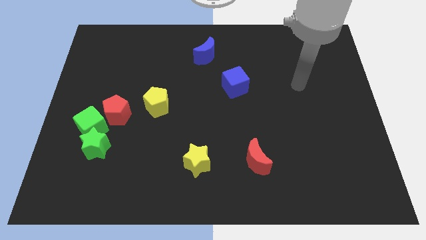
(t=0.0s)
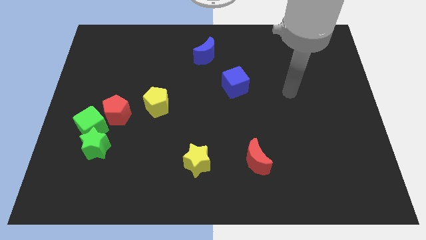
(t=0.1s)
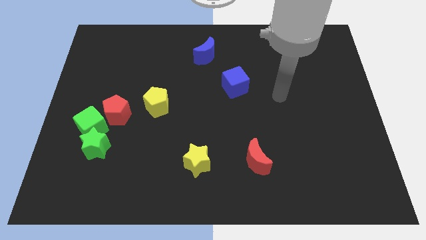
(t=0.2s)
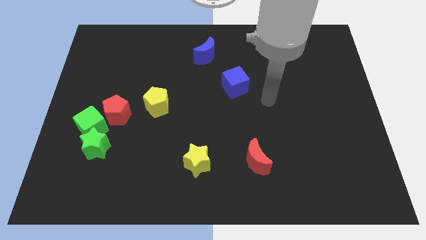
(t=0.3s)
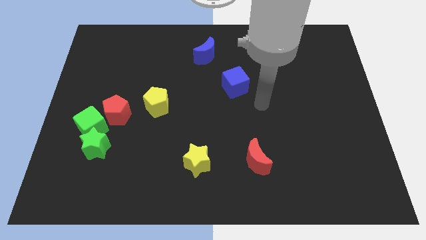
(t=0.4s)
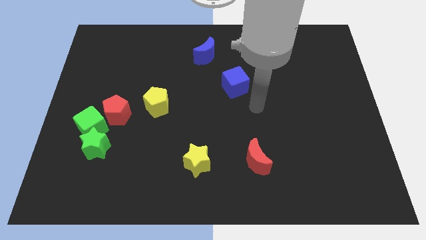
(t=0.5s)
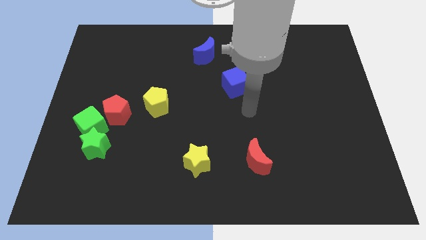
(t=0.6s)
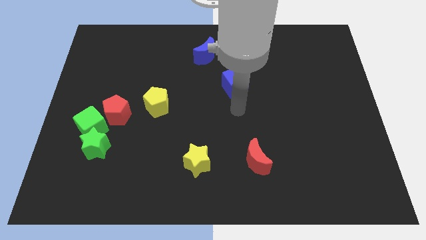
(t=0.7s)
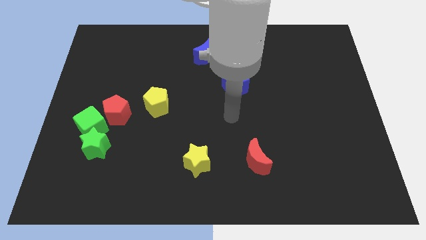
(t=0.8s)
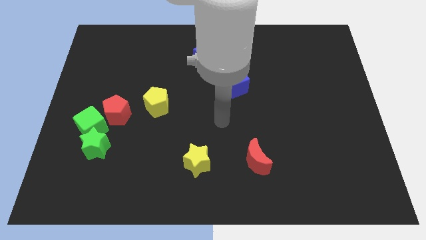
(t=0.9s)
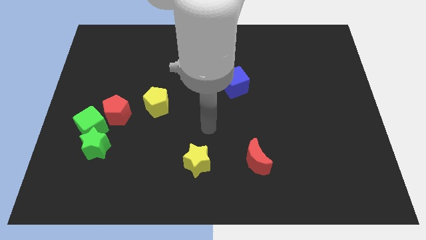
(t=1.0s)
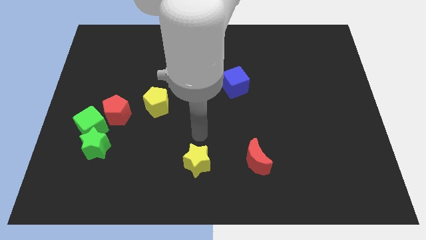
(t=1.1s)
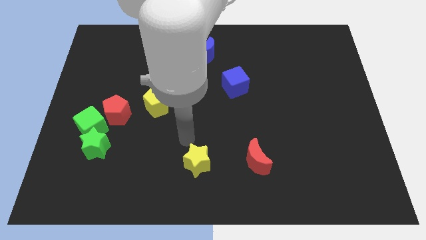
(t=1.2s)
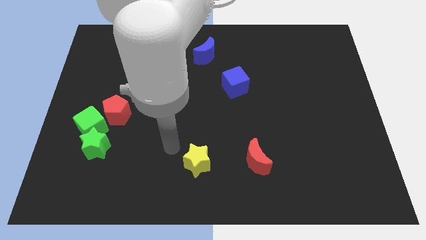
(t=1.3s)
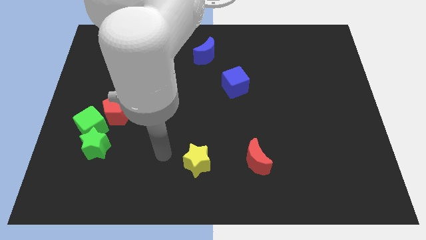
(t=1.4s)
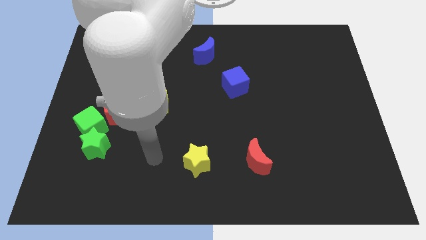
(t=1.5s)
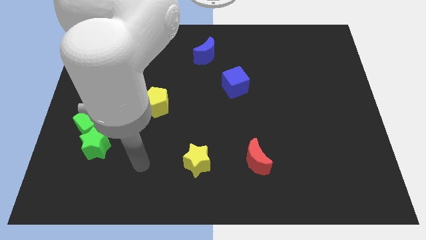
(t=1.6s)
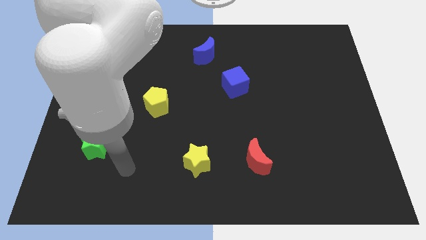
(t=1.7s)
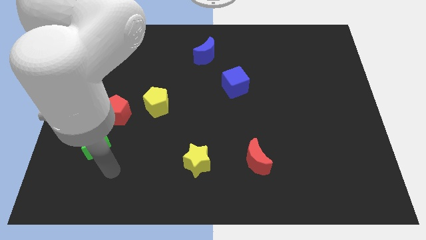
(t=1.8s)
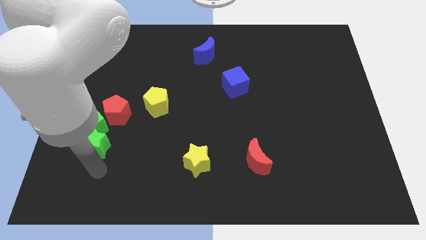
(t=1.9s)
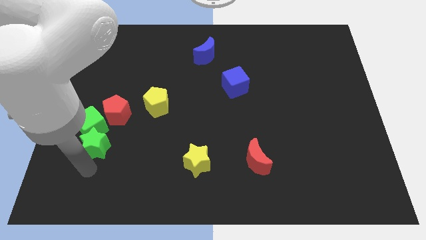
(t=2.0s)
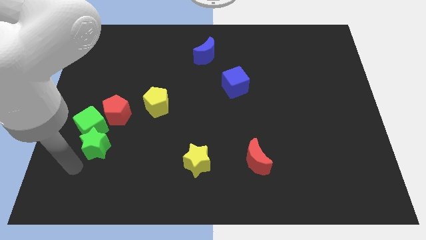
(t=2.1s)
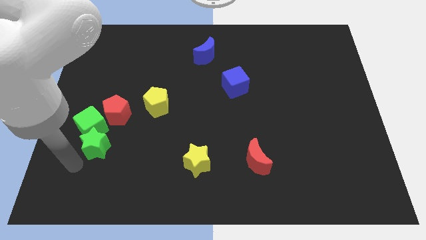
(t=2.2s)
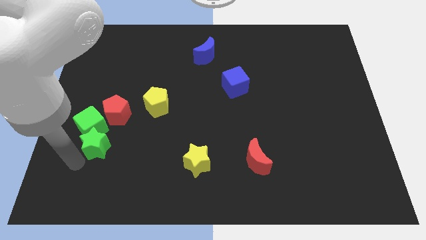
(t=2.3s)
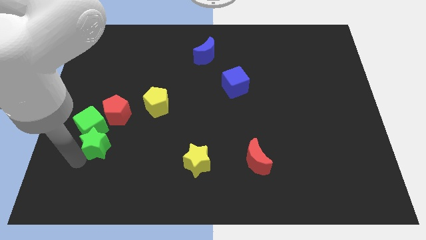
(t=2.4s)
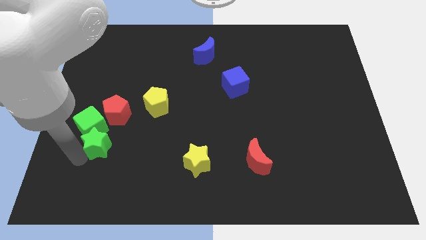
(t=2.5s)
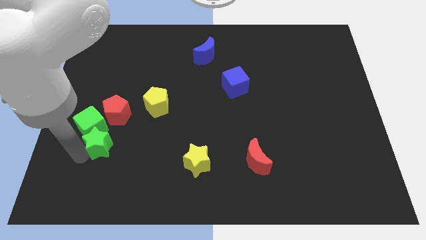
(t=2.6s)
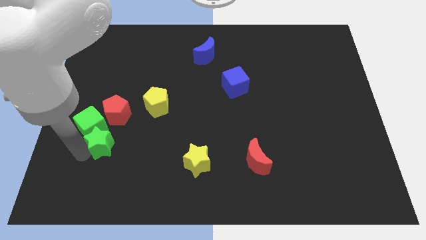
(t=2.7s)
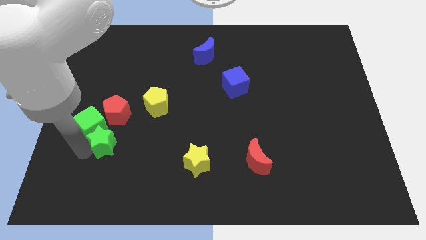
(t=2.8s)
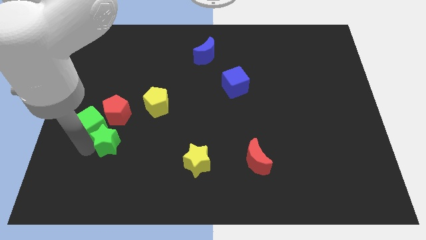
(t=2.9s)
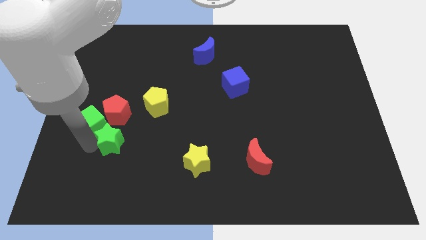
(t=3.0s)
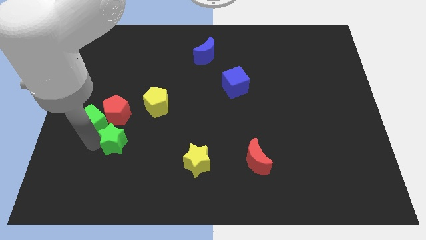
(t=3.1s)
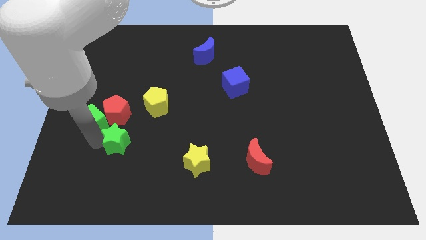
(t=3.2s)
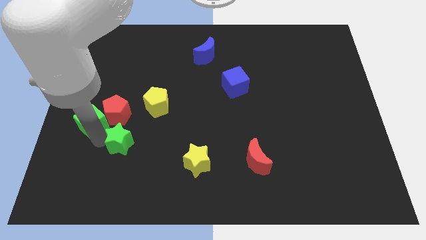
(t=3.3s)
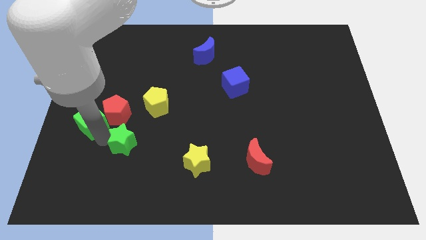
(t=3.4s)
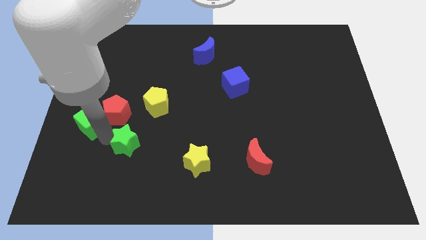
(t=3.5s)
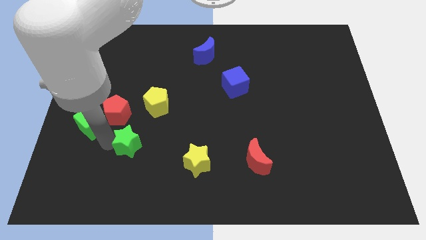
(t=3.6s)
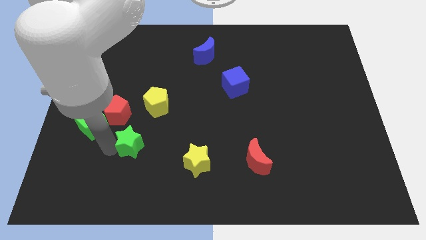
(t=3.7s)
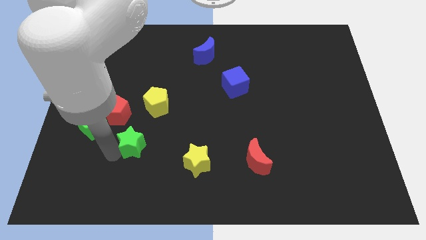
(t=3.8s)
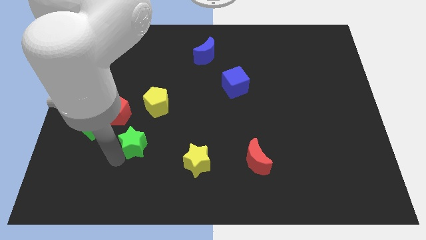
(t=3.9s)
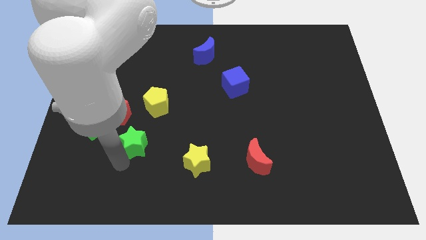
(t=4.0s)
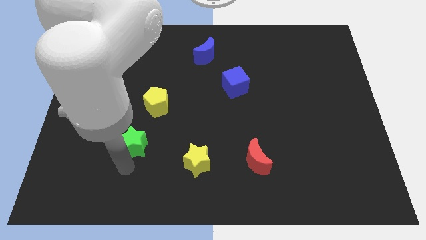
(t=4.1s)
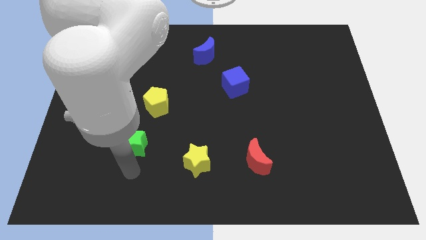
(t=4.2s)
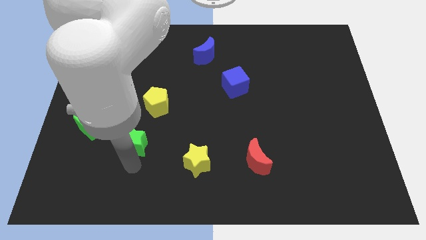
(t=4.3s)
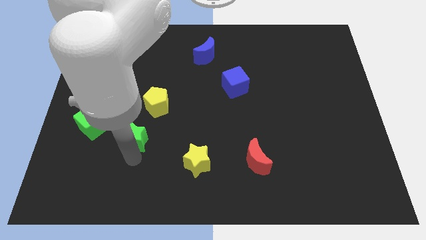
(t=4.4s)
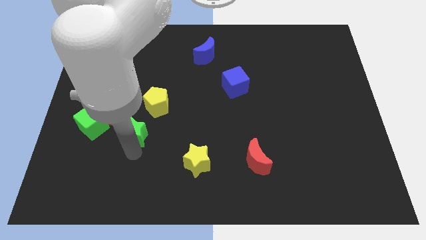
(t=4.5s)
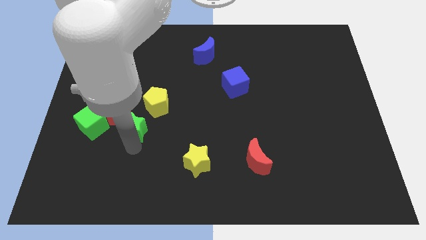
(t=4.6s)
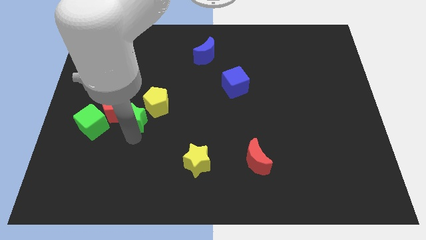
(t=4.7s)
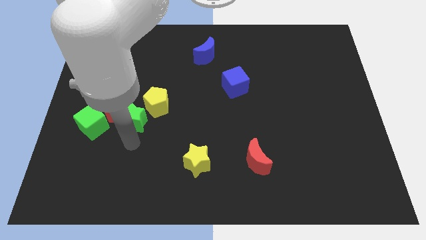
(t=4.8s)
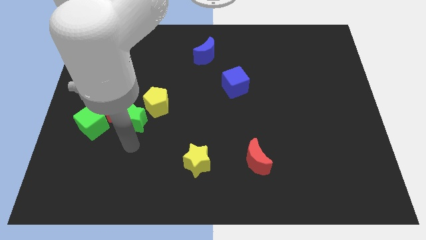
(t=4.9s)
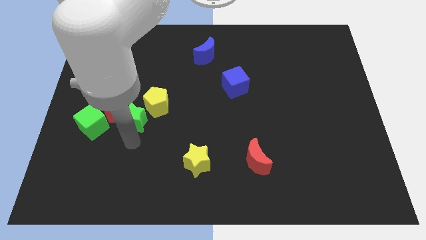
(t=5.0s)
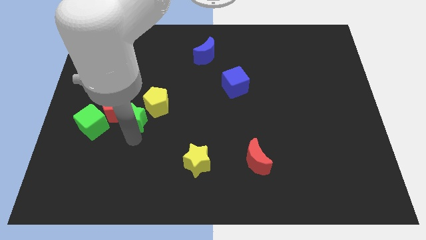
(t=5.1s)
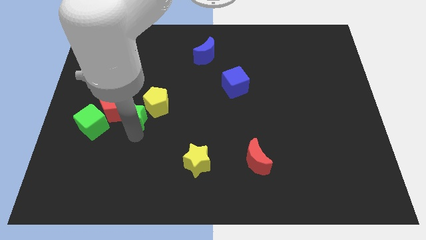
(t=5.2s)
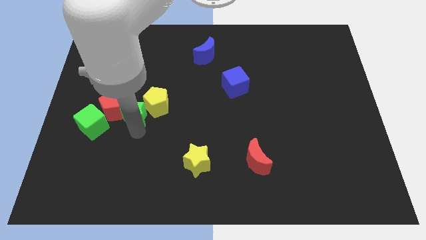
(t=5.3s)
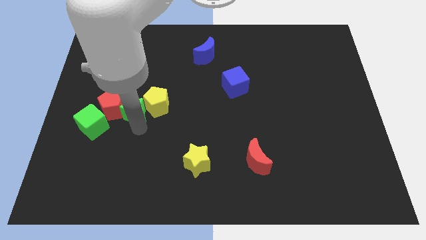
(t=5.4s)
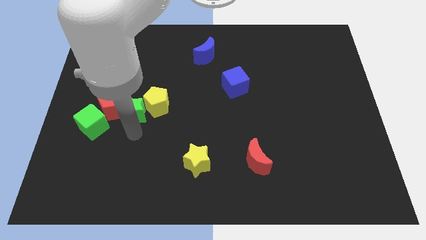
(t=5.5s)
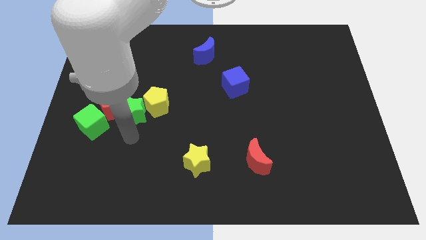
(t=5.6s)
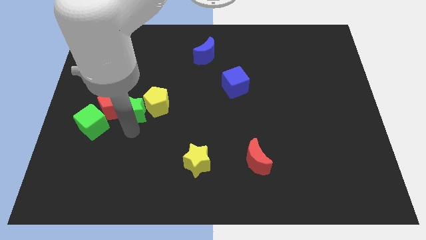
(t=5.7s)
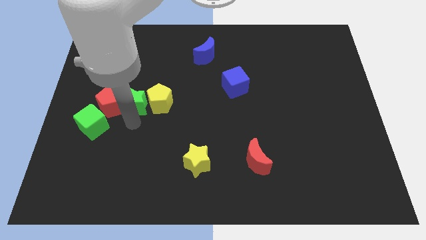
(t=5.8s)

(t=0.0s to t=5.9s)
push the green star diagonally up and to the left of the yellow pentagon
